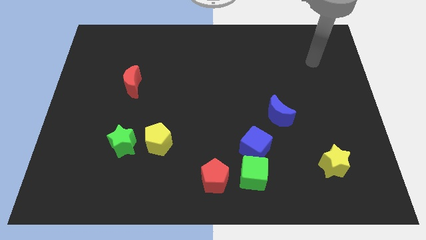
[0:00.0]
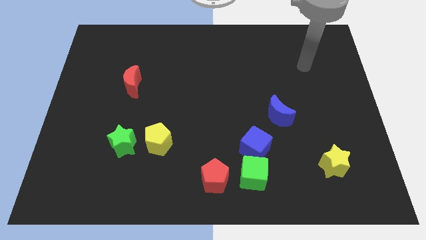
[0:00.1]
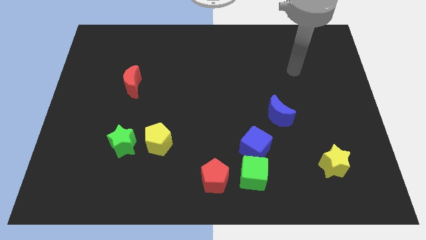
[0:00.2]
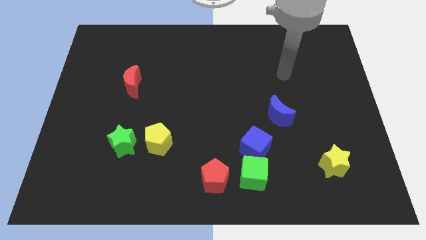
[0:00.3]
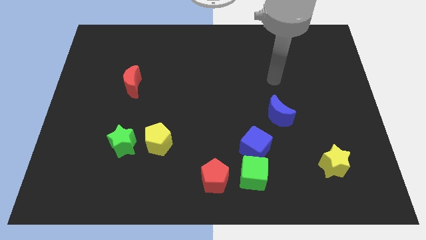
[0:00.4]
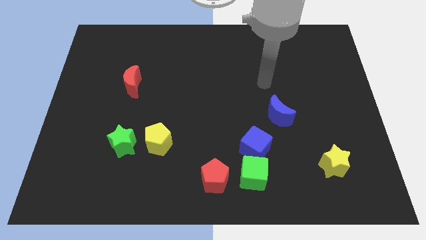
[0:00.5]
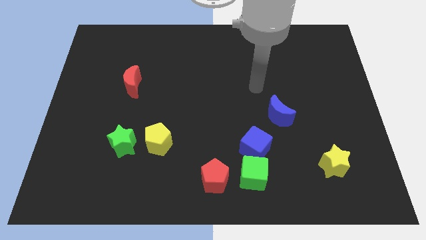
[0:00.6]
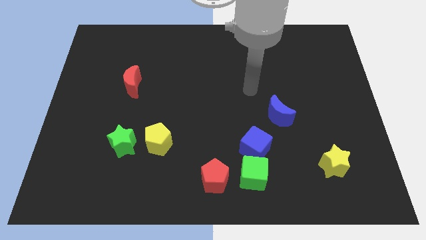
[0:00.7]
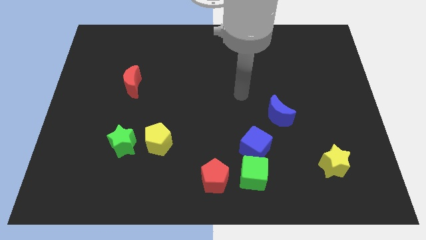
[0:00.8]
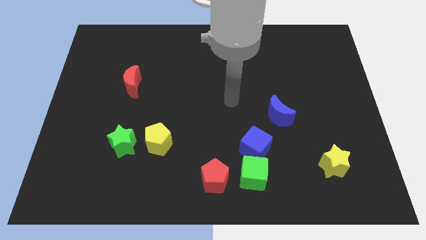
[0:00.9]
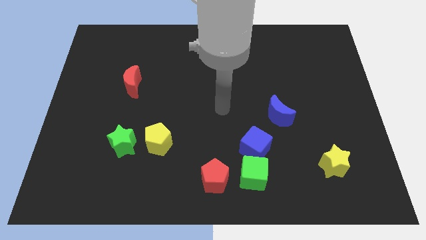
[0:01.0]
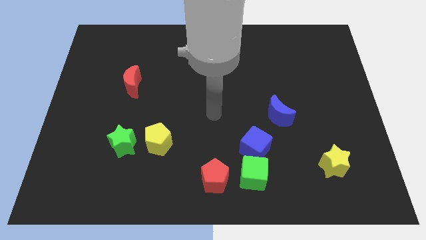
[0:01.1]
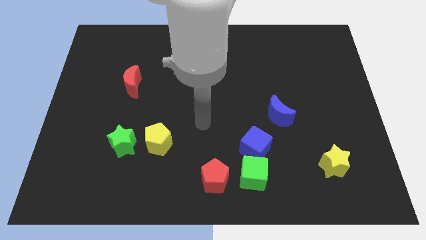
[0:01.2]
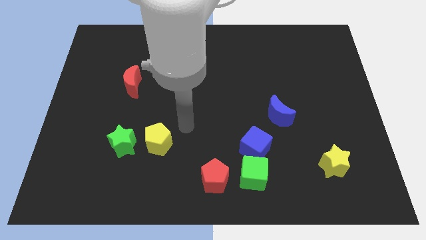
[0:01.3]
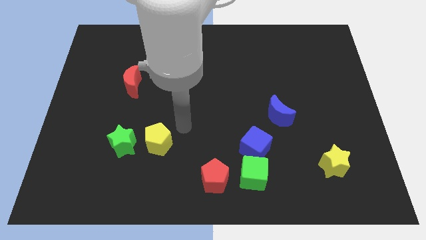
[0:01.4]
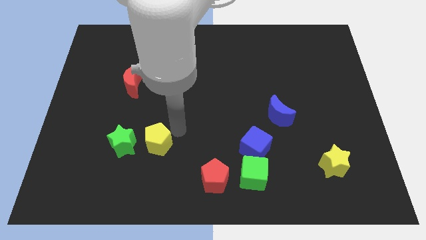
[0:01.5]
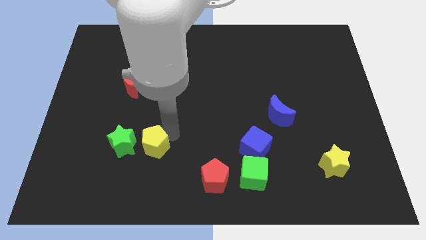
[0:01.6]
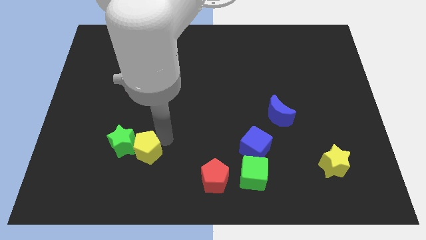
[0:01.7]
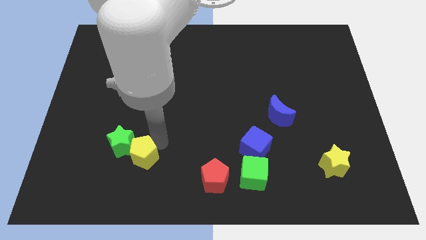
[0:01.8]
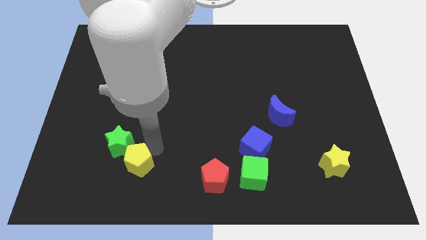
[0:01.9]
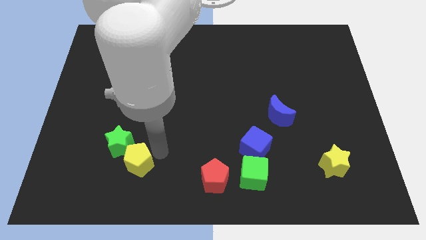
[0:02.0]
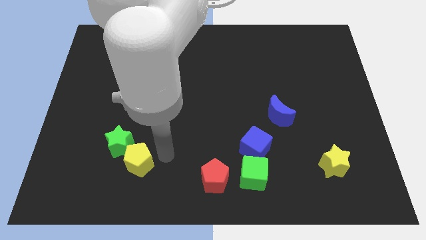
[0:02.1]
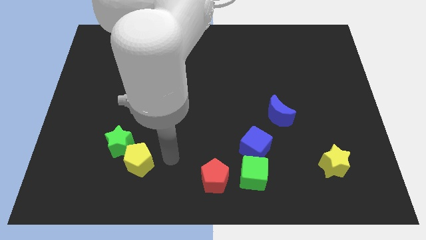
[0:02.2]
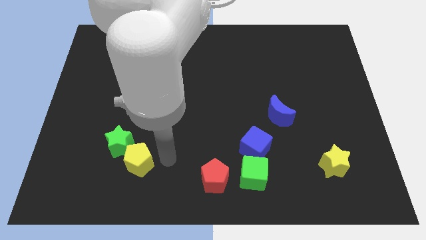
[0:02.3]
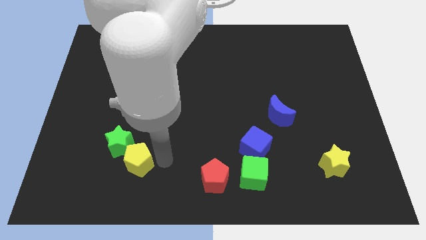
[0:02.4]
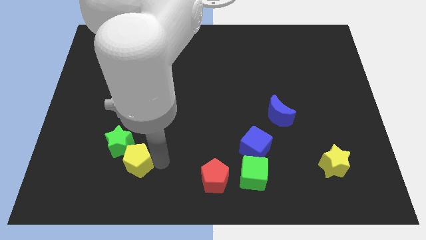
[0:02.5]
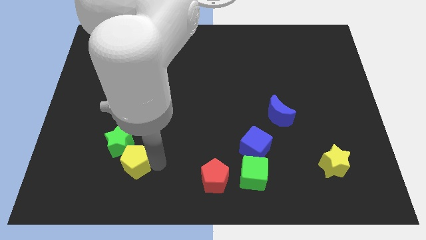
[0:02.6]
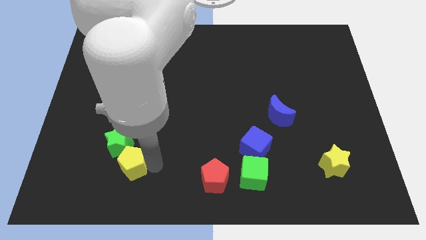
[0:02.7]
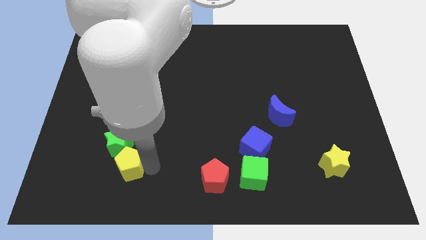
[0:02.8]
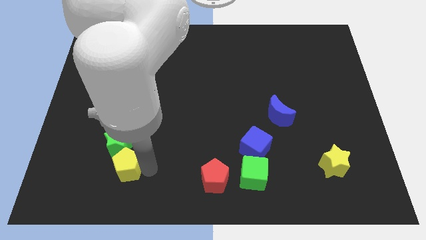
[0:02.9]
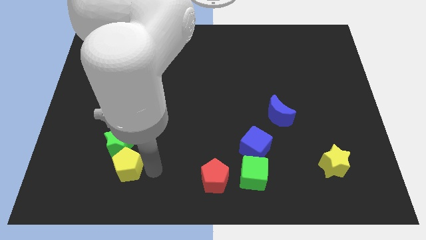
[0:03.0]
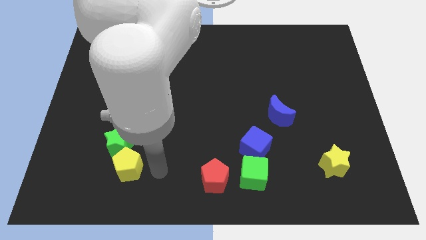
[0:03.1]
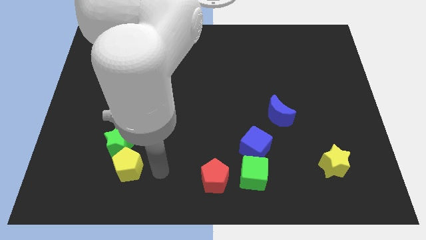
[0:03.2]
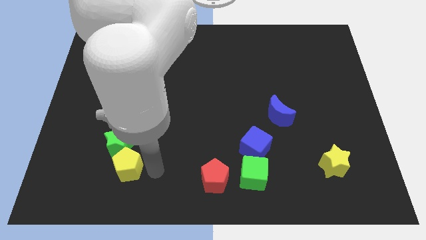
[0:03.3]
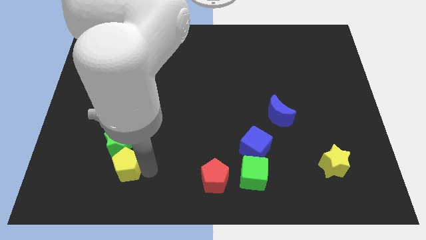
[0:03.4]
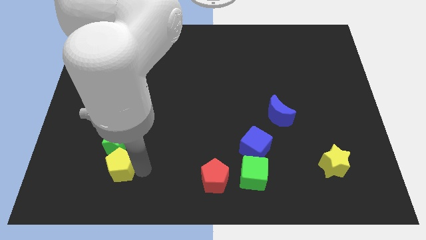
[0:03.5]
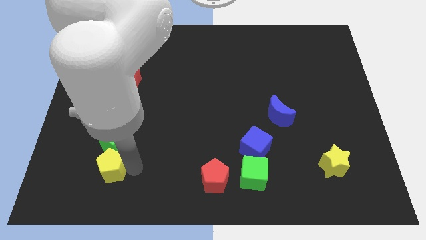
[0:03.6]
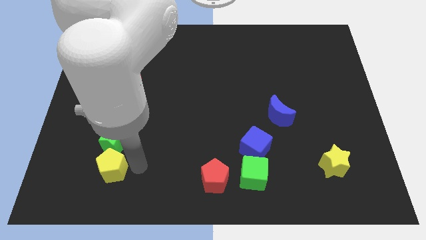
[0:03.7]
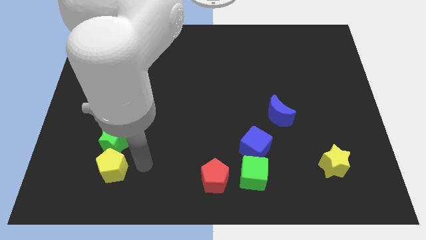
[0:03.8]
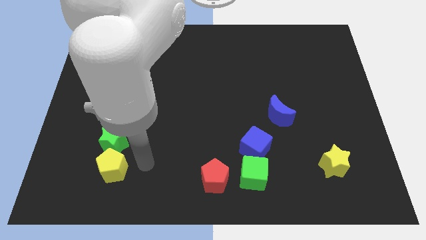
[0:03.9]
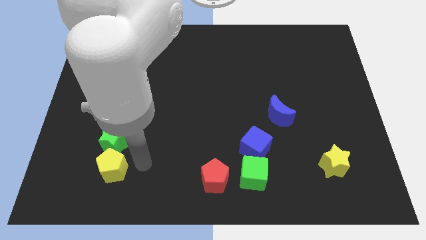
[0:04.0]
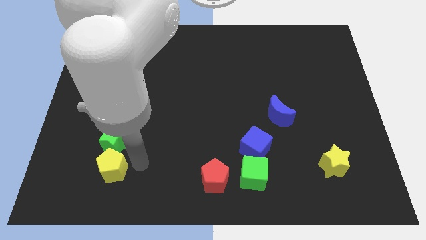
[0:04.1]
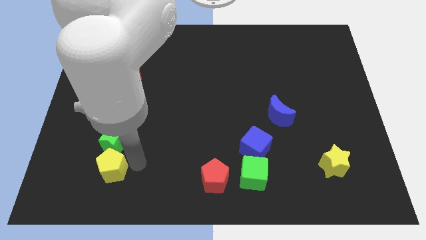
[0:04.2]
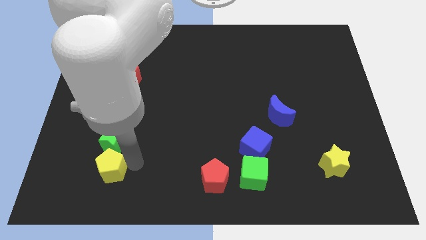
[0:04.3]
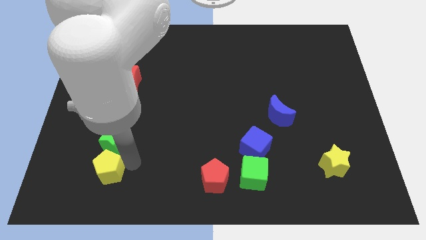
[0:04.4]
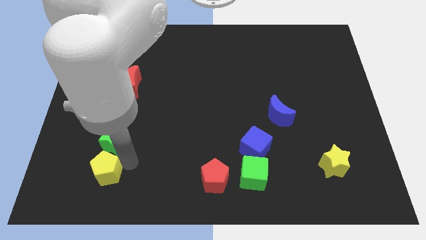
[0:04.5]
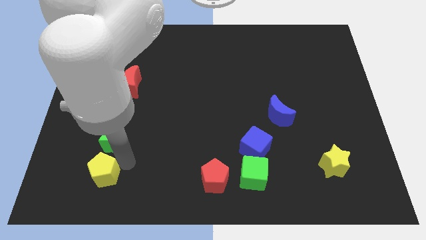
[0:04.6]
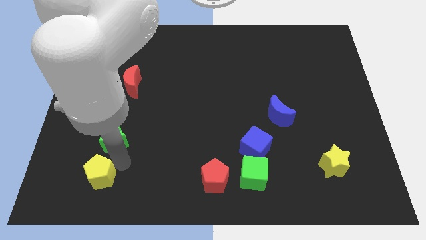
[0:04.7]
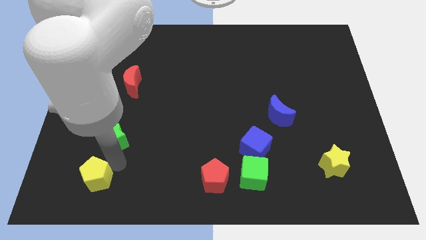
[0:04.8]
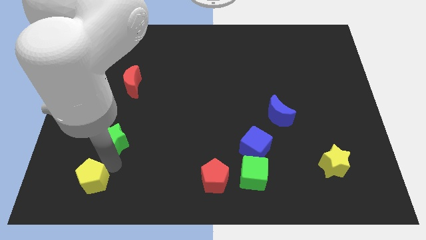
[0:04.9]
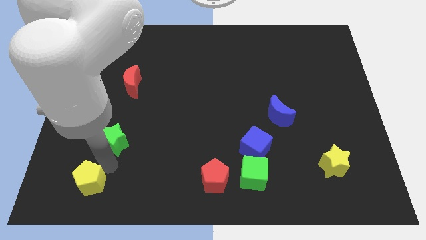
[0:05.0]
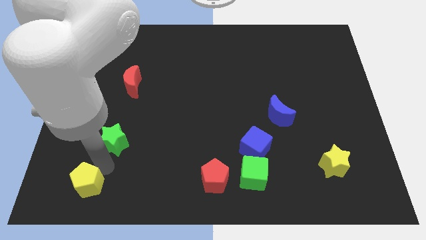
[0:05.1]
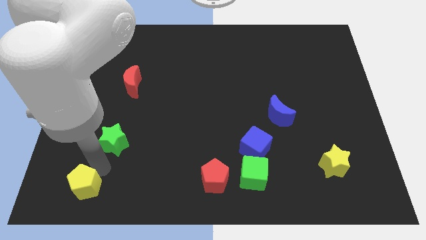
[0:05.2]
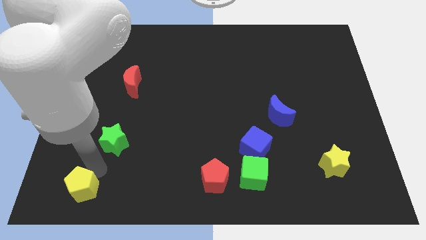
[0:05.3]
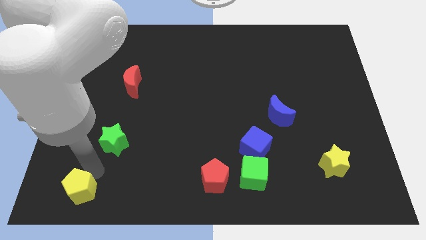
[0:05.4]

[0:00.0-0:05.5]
push the yellow pentagon to the bottom left

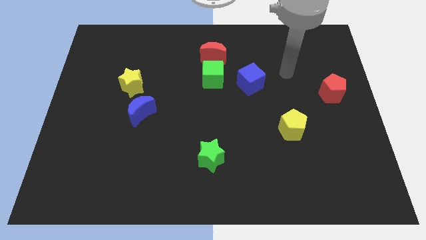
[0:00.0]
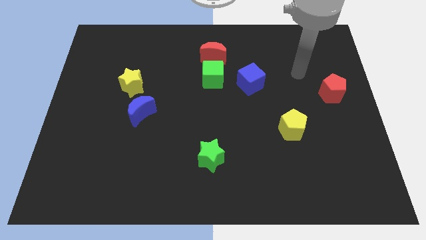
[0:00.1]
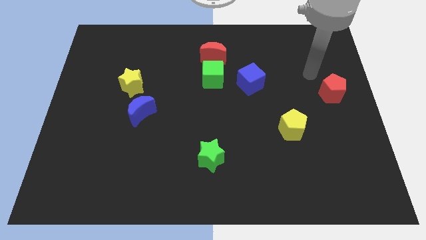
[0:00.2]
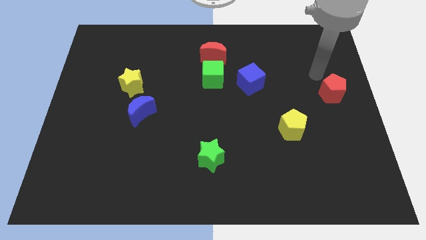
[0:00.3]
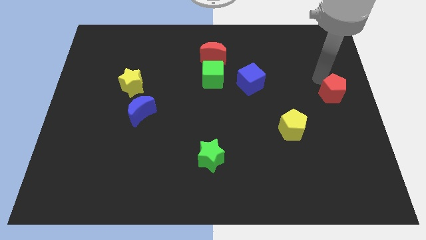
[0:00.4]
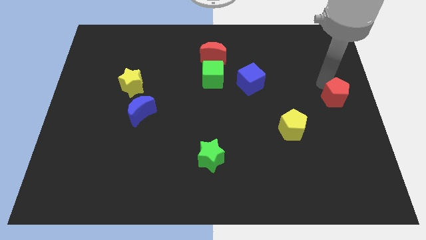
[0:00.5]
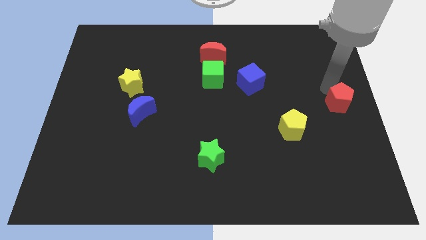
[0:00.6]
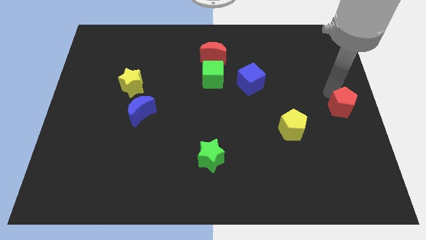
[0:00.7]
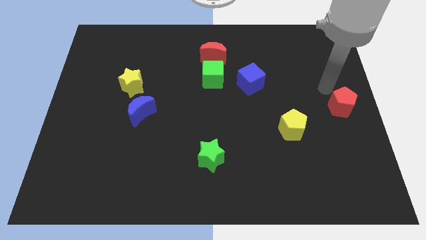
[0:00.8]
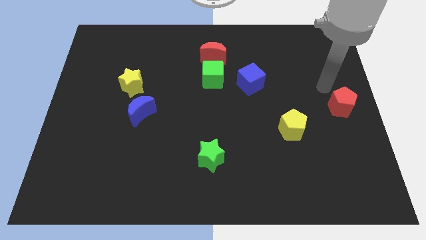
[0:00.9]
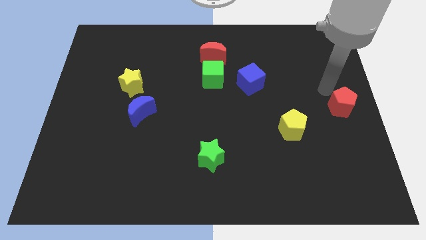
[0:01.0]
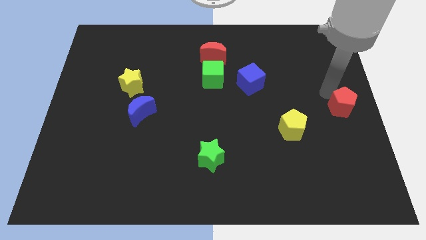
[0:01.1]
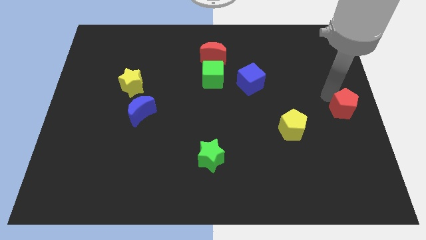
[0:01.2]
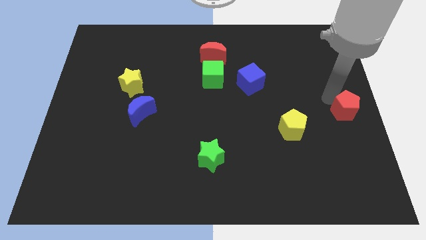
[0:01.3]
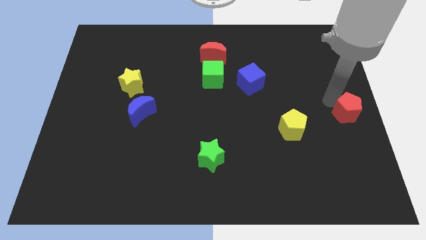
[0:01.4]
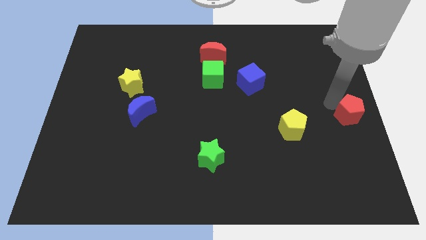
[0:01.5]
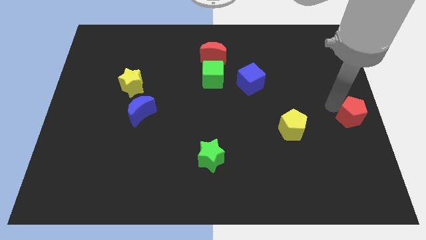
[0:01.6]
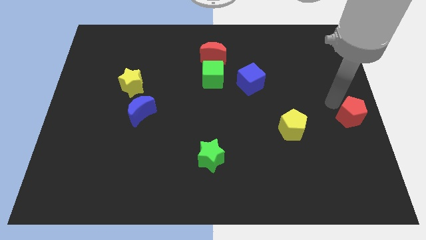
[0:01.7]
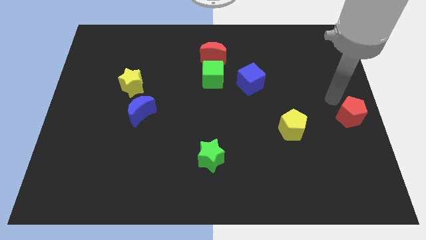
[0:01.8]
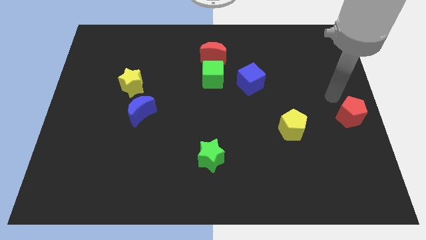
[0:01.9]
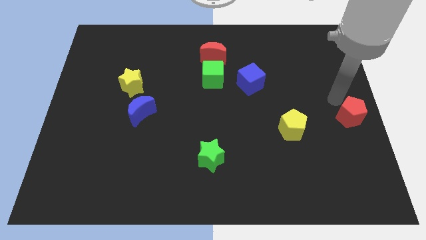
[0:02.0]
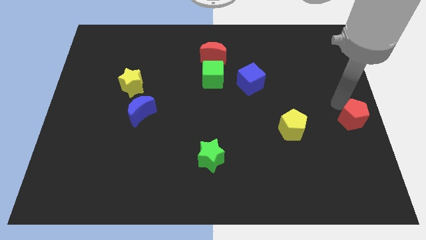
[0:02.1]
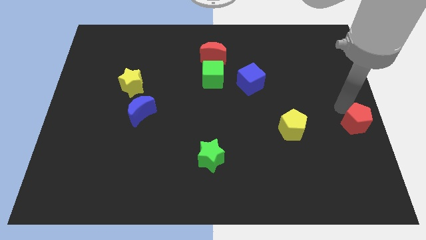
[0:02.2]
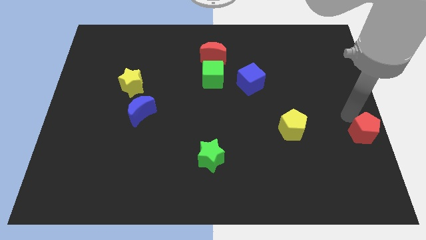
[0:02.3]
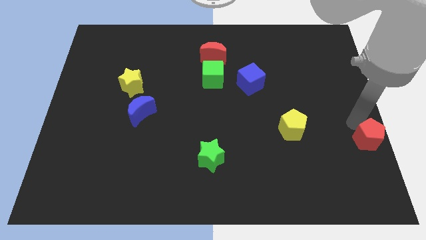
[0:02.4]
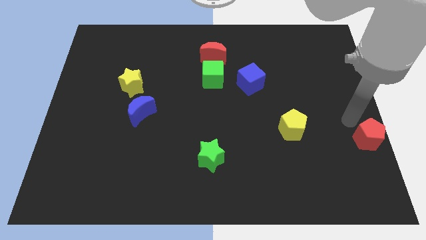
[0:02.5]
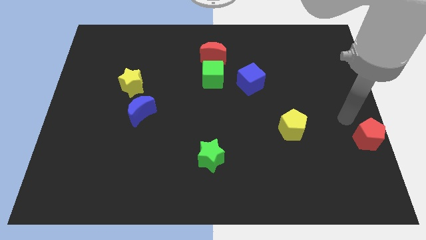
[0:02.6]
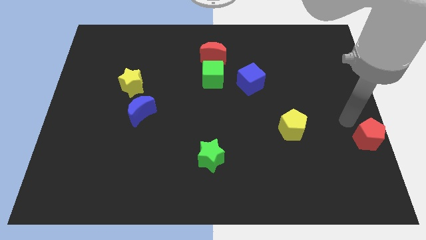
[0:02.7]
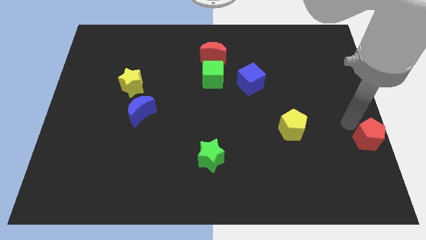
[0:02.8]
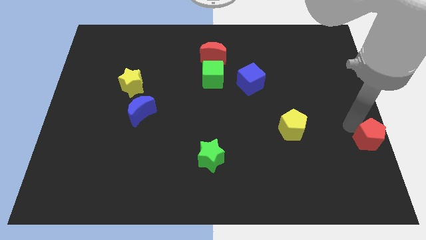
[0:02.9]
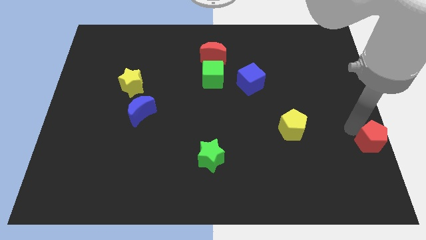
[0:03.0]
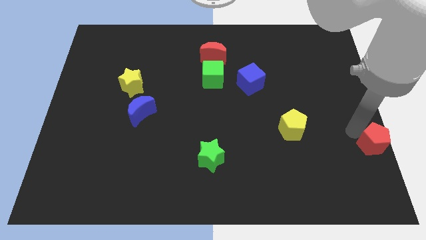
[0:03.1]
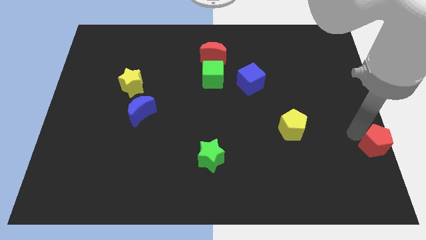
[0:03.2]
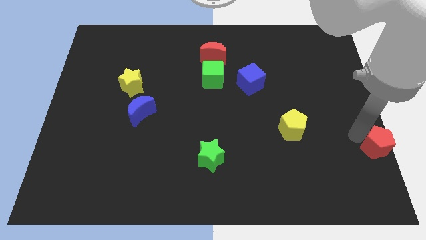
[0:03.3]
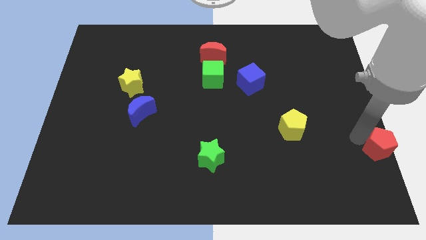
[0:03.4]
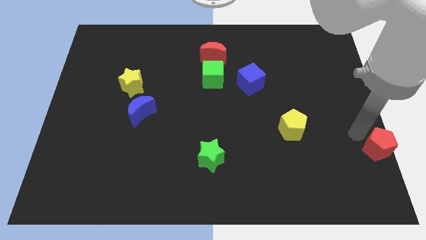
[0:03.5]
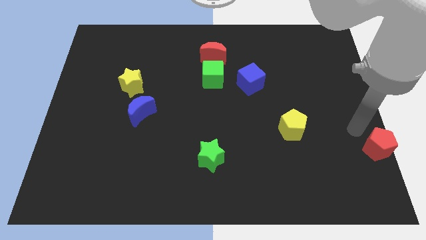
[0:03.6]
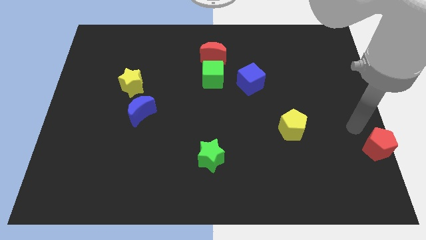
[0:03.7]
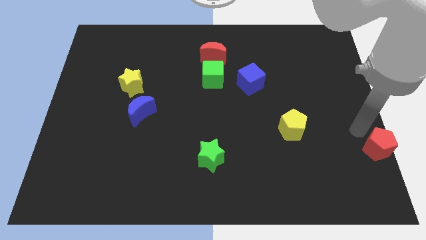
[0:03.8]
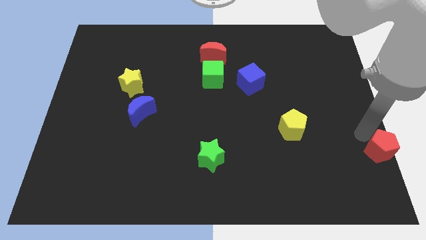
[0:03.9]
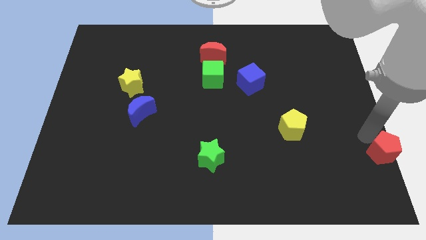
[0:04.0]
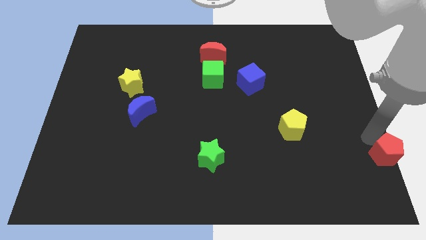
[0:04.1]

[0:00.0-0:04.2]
move the red pentagon to the lower right corner
